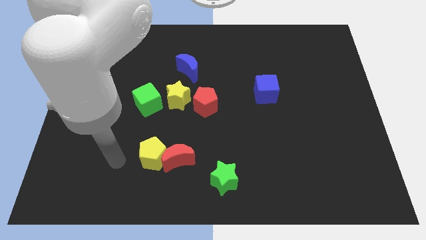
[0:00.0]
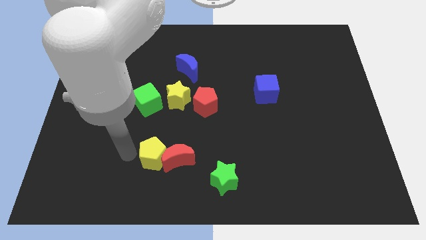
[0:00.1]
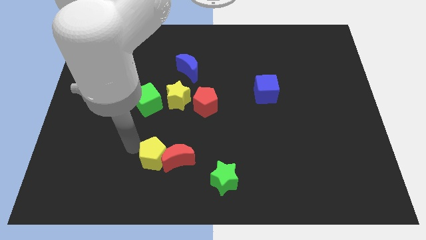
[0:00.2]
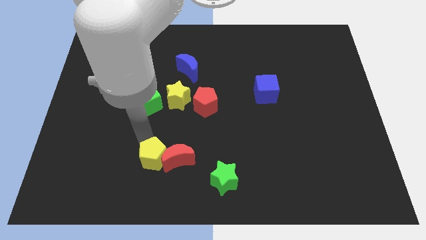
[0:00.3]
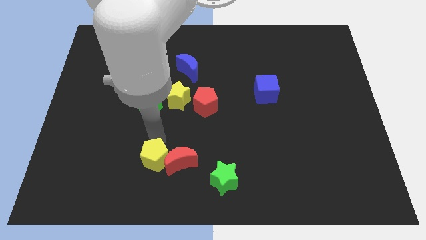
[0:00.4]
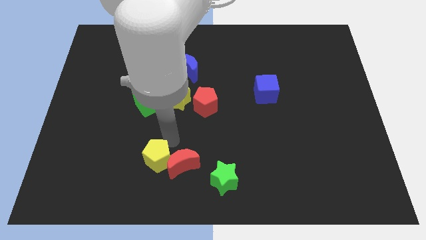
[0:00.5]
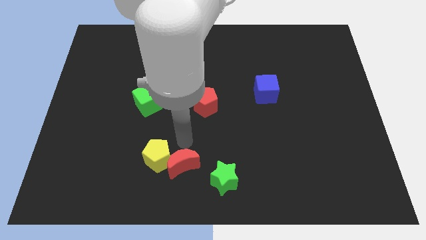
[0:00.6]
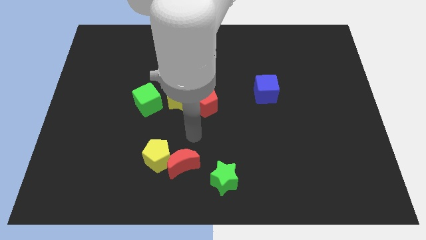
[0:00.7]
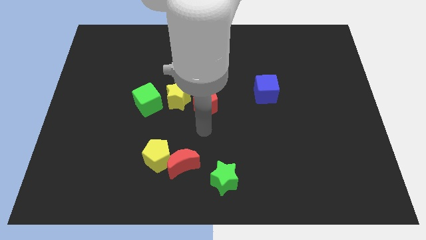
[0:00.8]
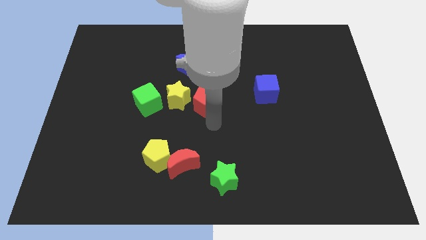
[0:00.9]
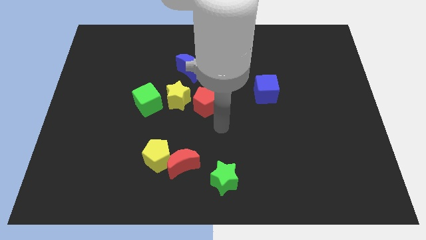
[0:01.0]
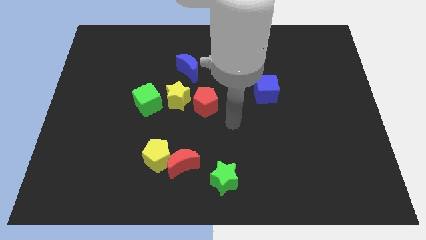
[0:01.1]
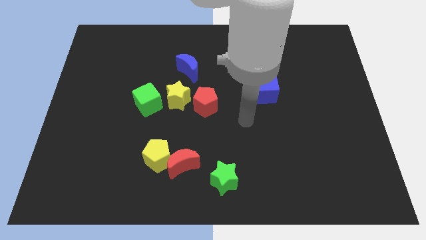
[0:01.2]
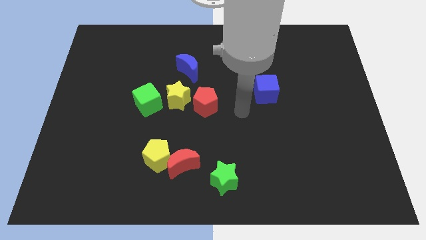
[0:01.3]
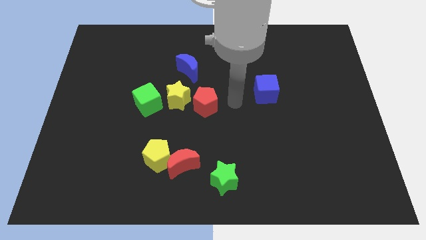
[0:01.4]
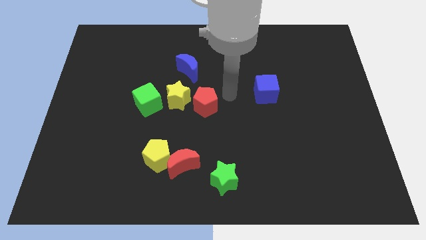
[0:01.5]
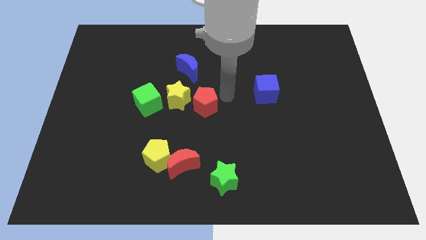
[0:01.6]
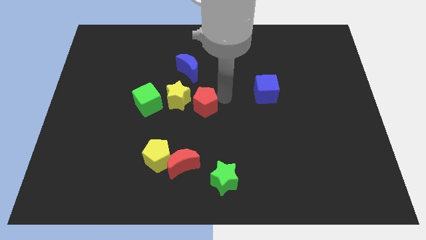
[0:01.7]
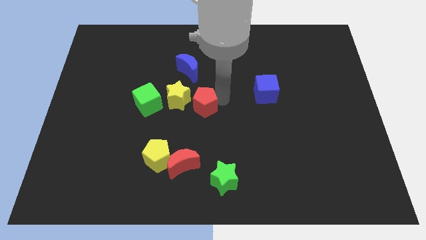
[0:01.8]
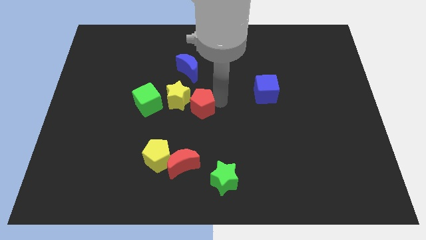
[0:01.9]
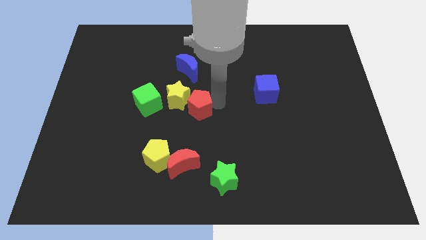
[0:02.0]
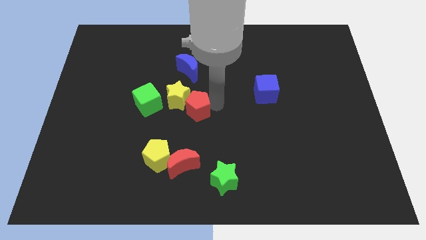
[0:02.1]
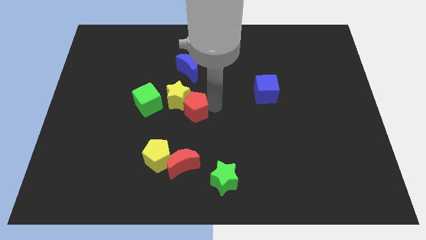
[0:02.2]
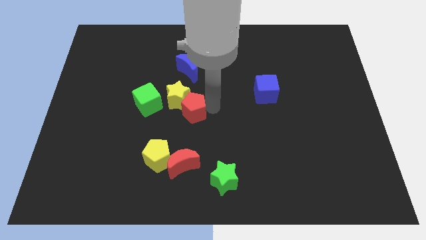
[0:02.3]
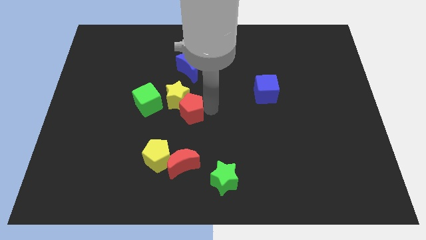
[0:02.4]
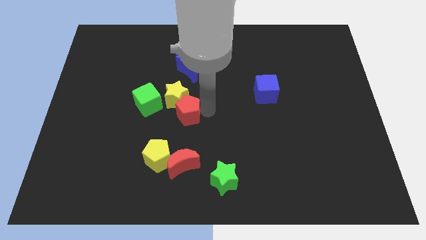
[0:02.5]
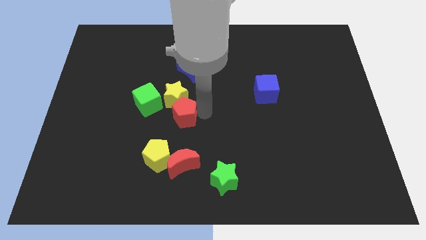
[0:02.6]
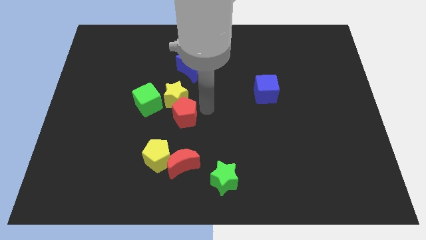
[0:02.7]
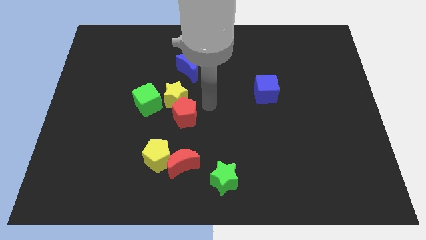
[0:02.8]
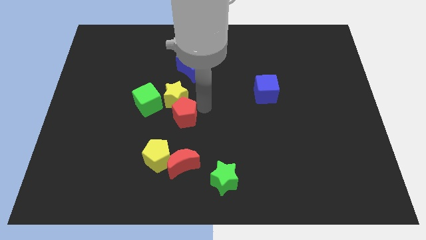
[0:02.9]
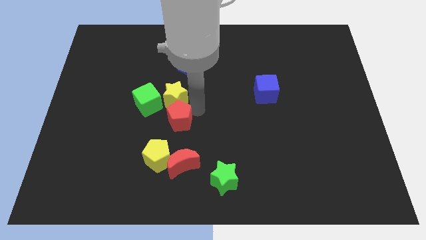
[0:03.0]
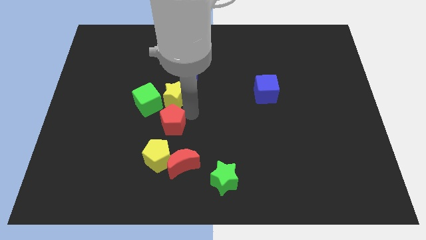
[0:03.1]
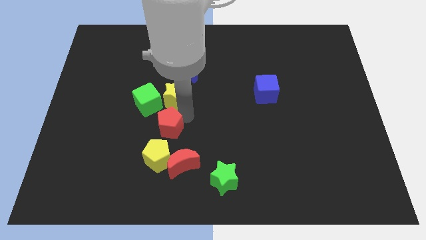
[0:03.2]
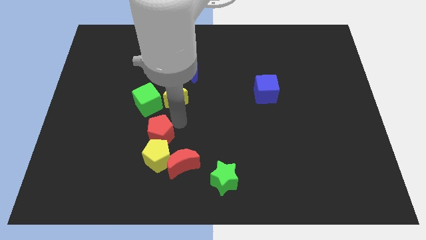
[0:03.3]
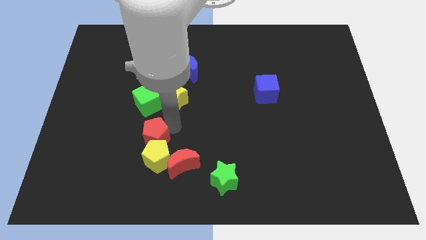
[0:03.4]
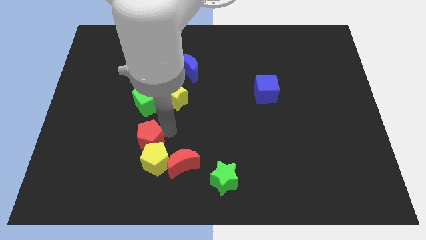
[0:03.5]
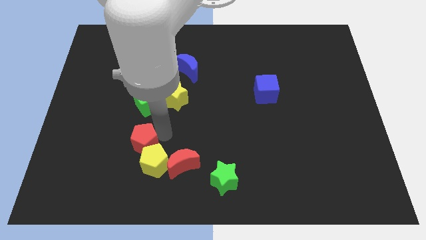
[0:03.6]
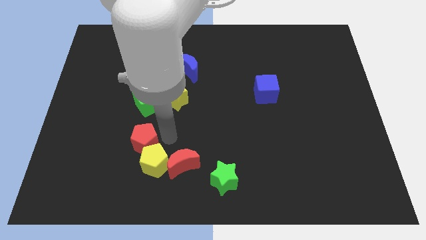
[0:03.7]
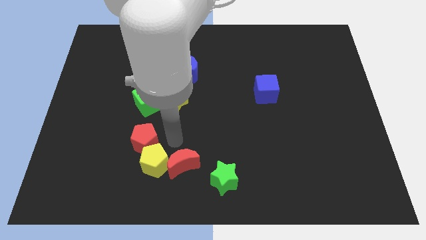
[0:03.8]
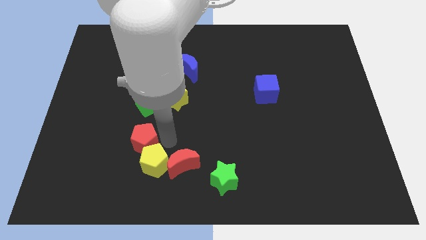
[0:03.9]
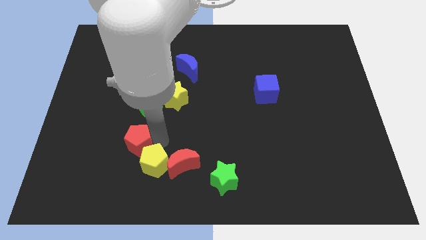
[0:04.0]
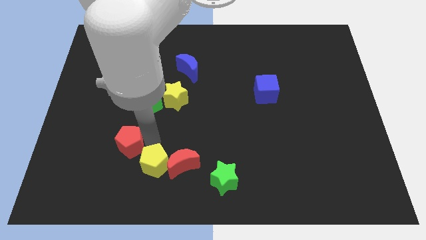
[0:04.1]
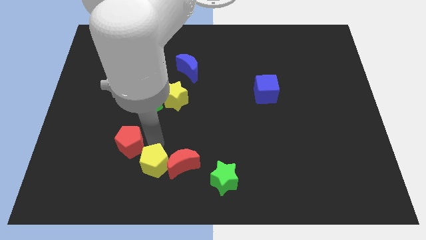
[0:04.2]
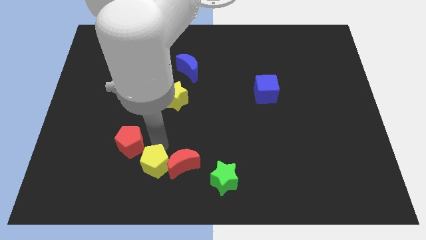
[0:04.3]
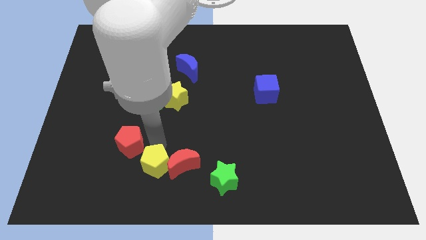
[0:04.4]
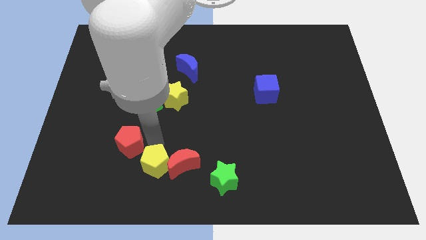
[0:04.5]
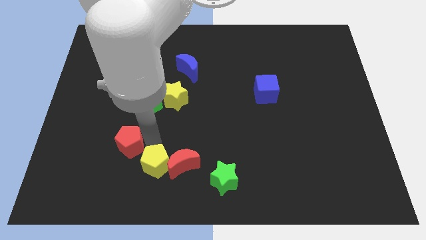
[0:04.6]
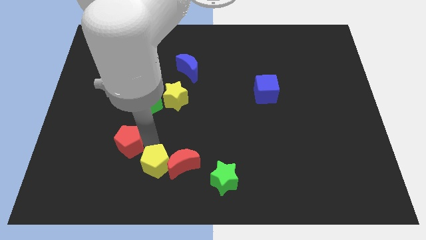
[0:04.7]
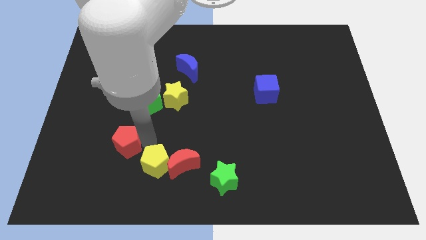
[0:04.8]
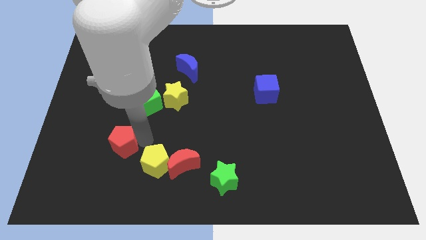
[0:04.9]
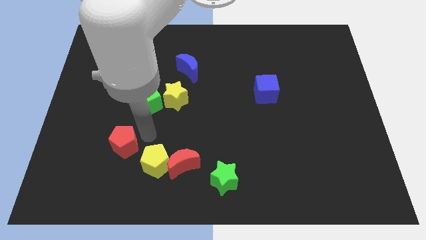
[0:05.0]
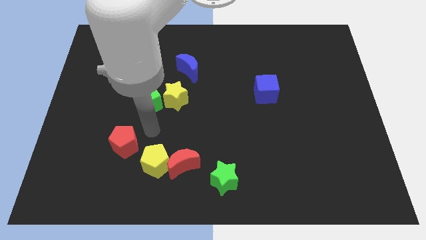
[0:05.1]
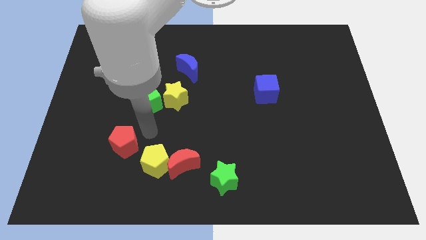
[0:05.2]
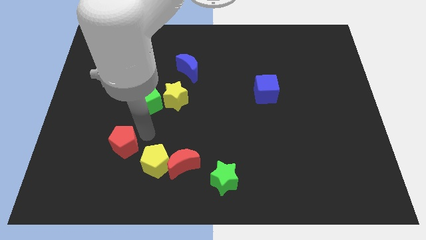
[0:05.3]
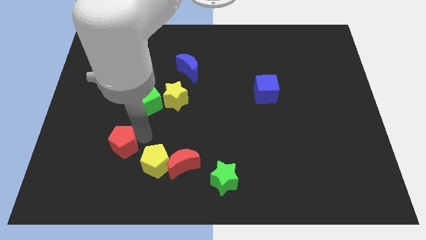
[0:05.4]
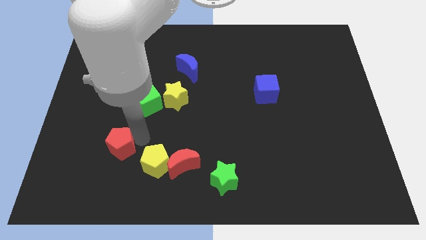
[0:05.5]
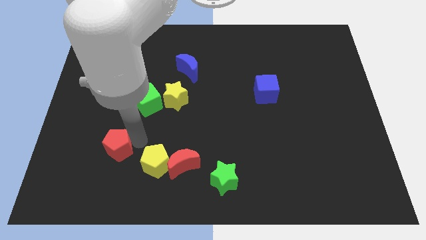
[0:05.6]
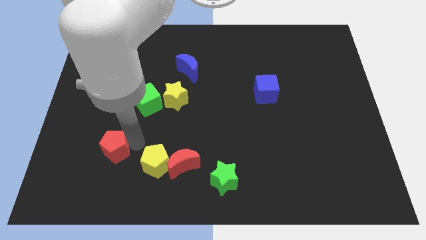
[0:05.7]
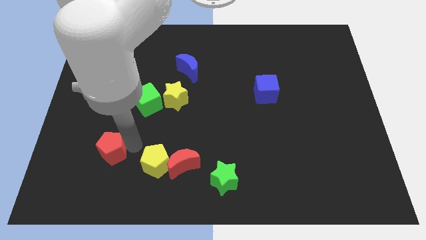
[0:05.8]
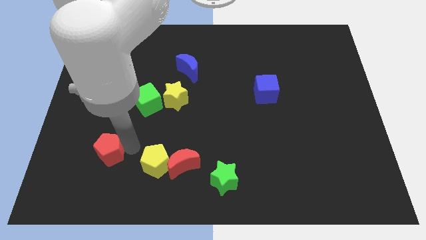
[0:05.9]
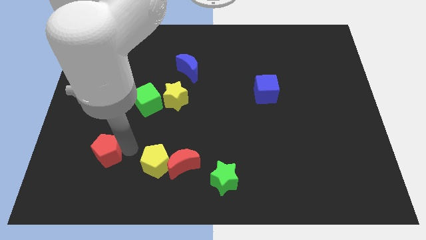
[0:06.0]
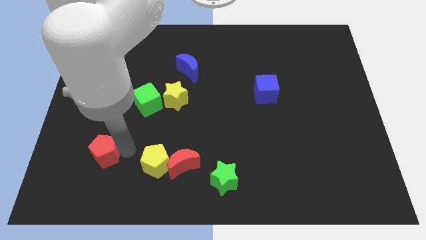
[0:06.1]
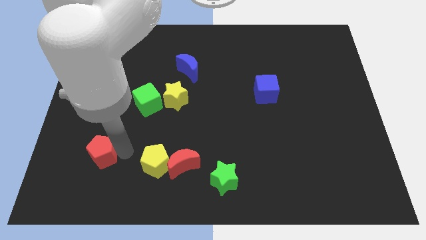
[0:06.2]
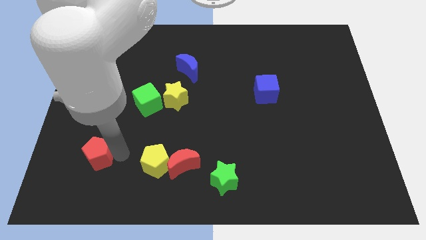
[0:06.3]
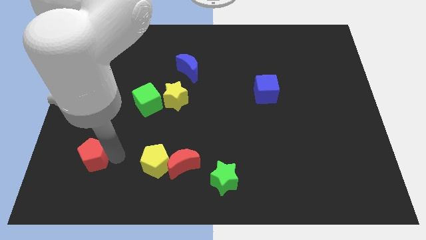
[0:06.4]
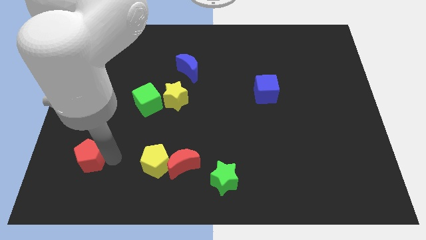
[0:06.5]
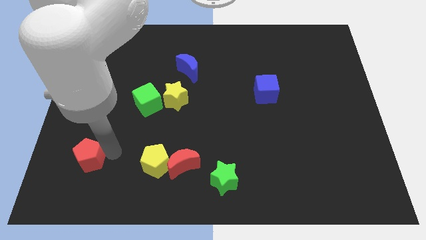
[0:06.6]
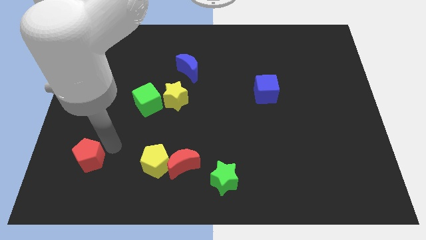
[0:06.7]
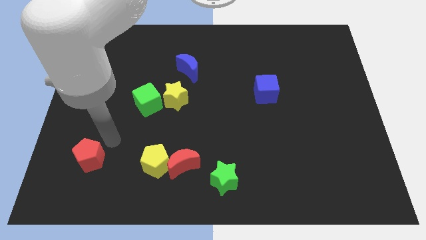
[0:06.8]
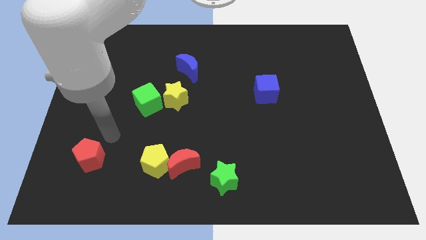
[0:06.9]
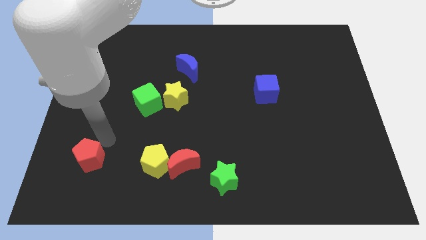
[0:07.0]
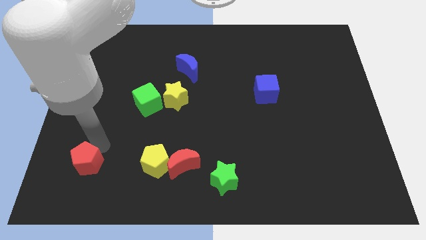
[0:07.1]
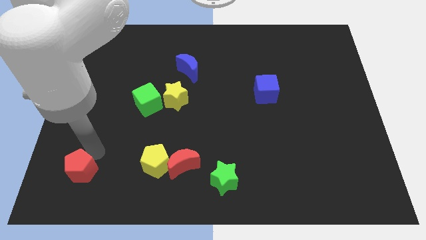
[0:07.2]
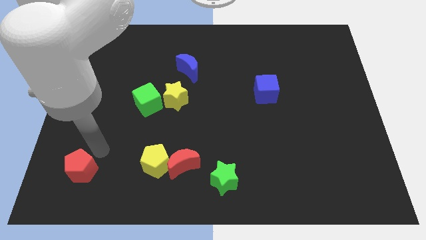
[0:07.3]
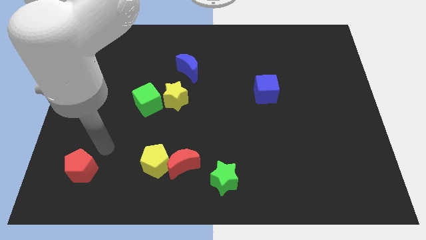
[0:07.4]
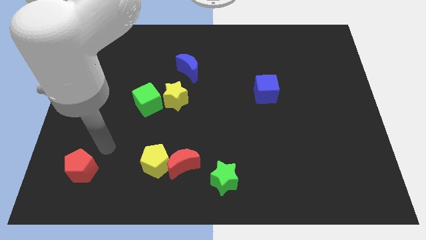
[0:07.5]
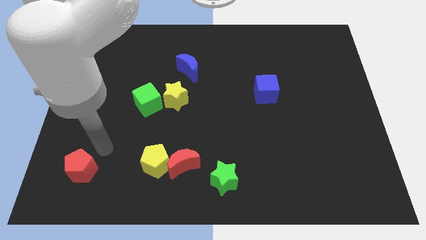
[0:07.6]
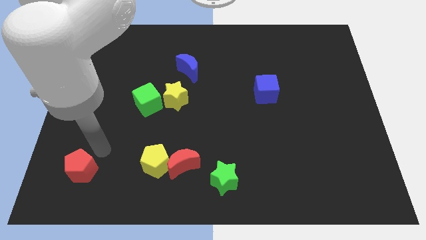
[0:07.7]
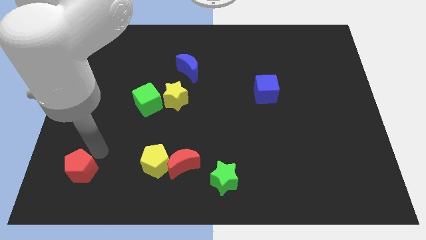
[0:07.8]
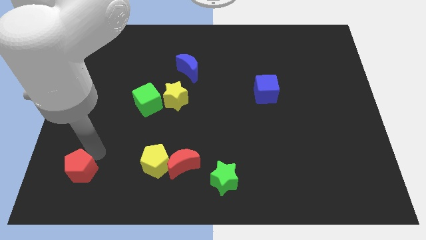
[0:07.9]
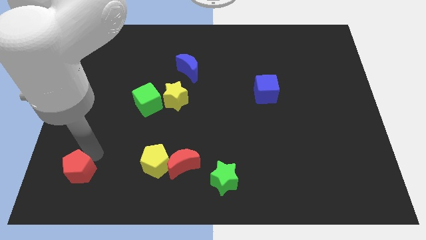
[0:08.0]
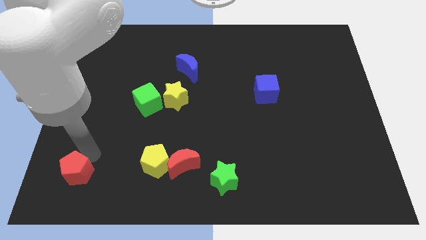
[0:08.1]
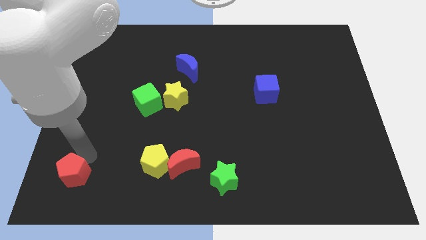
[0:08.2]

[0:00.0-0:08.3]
move the red pentagon to the lower left corner
